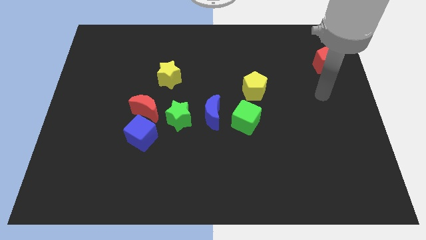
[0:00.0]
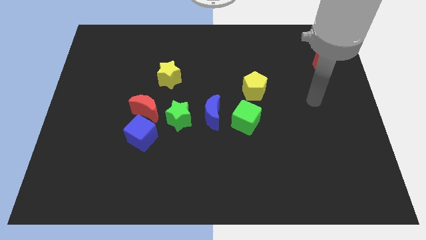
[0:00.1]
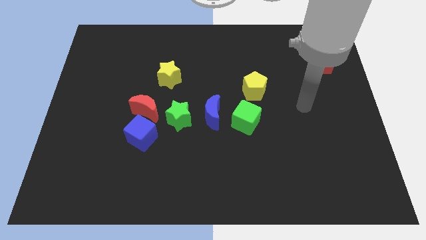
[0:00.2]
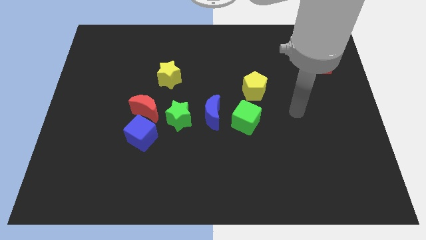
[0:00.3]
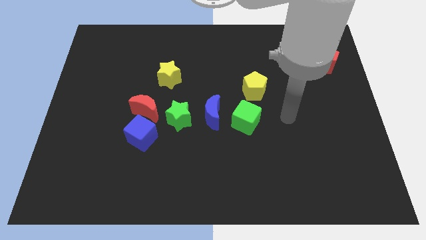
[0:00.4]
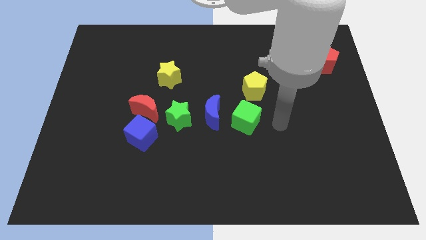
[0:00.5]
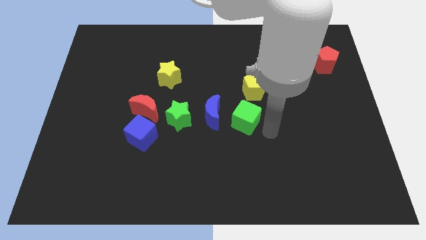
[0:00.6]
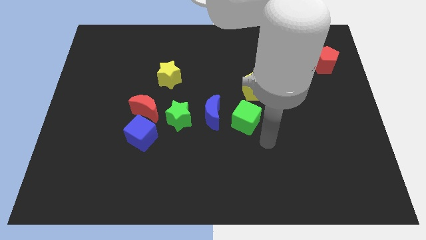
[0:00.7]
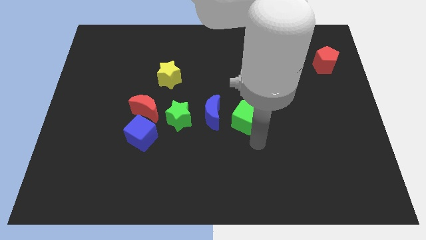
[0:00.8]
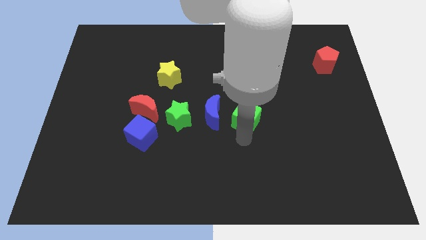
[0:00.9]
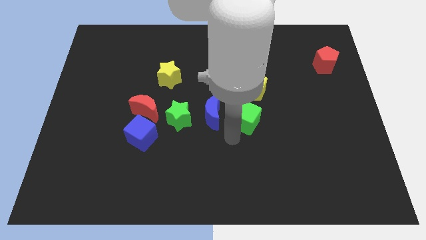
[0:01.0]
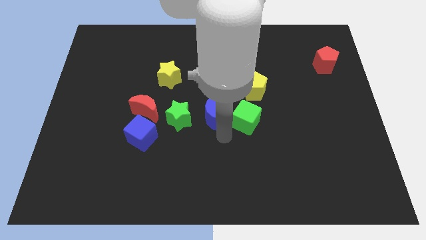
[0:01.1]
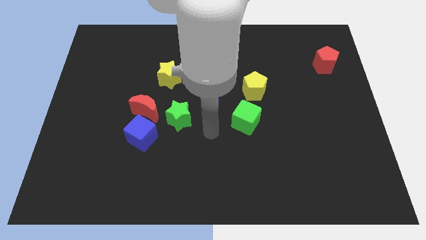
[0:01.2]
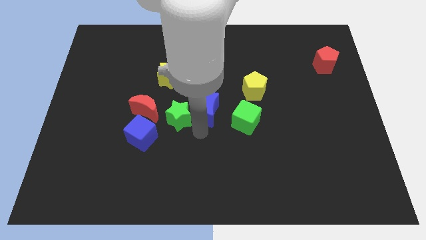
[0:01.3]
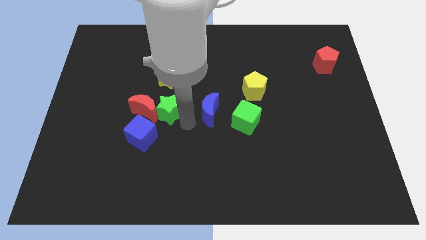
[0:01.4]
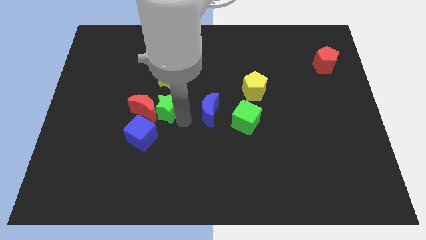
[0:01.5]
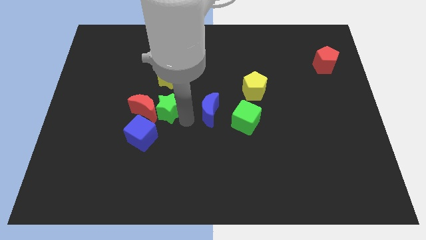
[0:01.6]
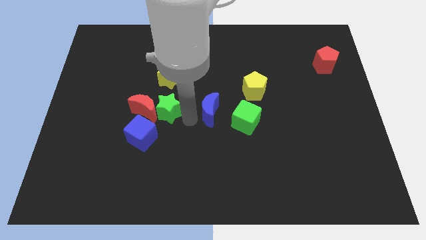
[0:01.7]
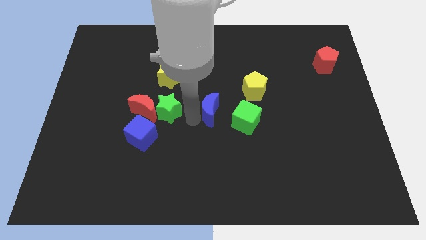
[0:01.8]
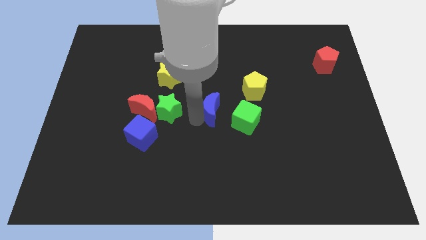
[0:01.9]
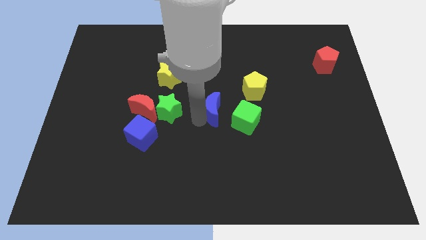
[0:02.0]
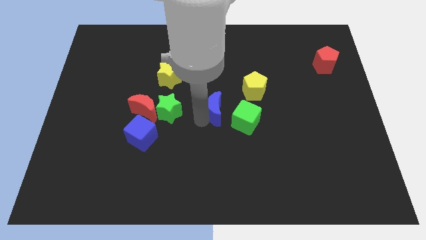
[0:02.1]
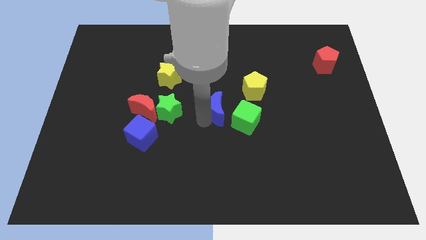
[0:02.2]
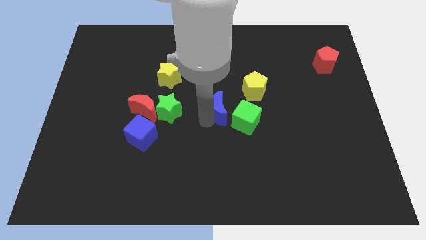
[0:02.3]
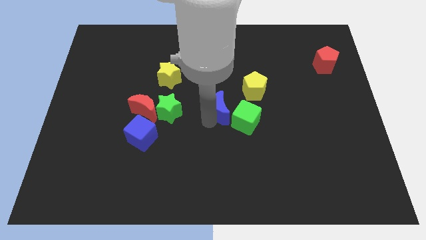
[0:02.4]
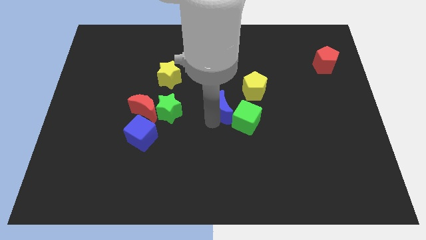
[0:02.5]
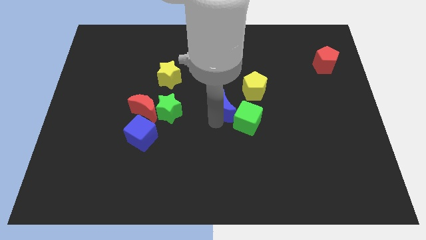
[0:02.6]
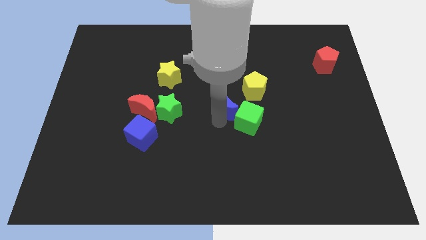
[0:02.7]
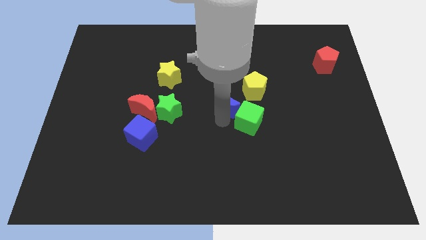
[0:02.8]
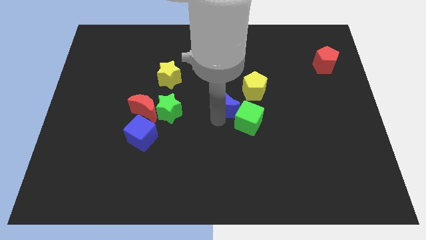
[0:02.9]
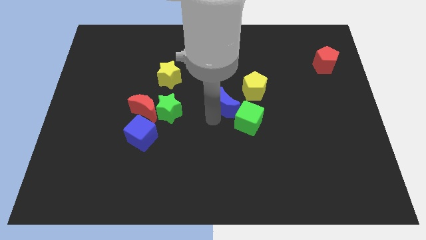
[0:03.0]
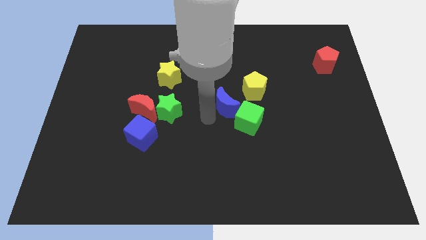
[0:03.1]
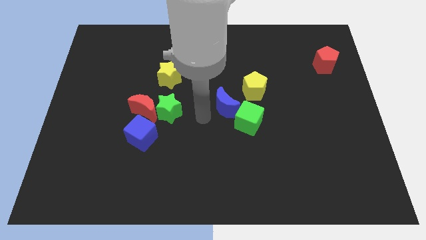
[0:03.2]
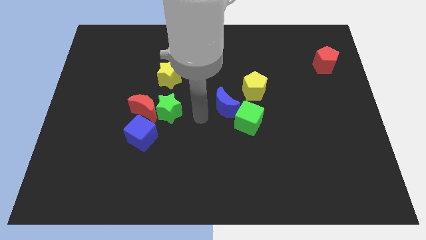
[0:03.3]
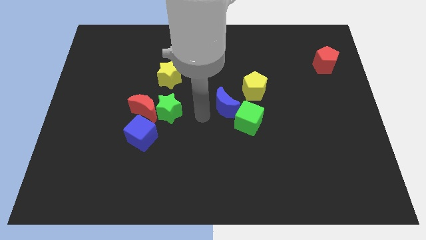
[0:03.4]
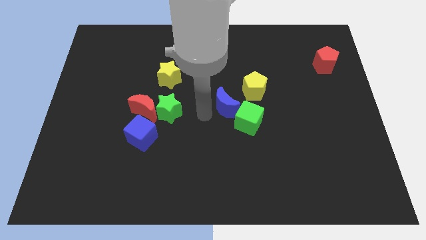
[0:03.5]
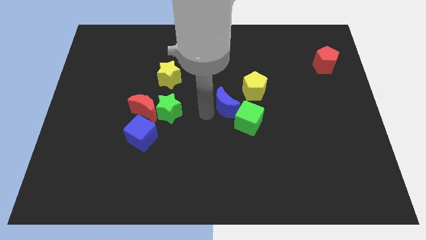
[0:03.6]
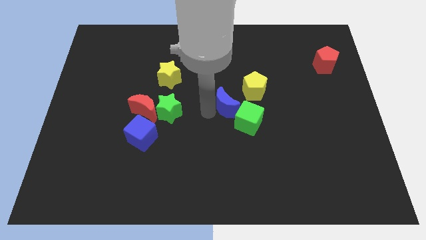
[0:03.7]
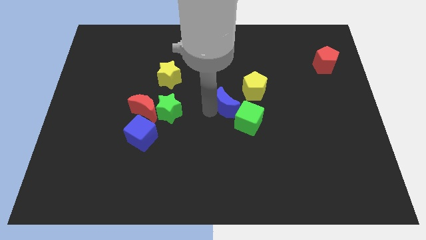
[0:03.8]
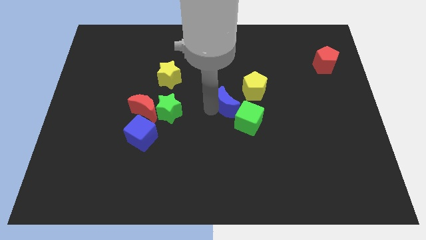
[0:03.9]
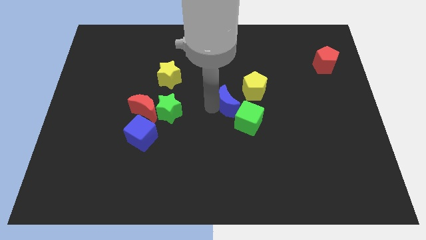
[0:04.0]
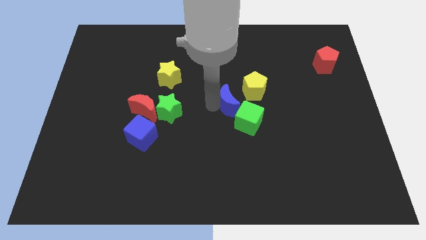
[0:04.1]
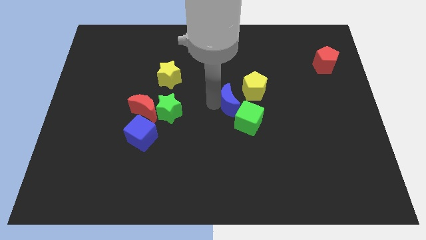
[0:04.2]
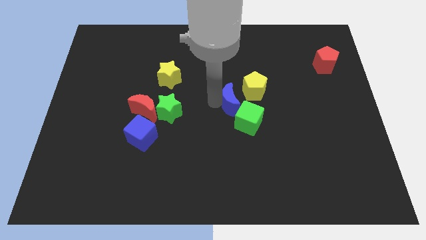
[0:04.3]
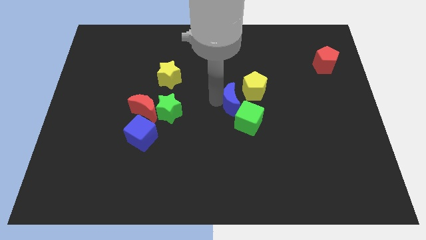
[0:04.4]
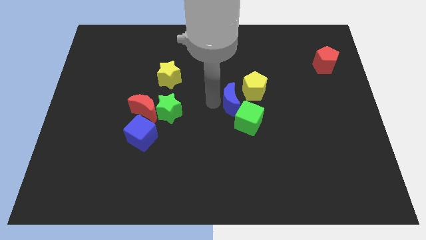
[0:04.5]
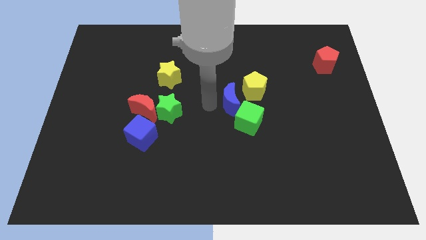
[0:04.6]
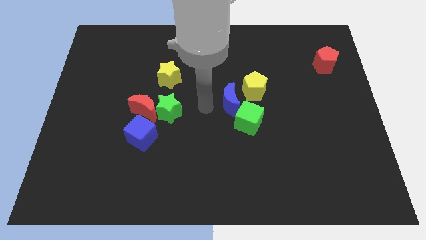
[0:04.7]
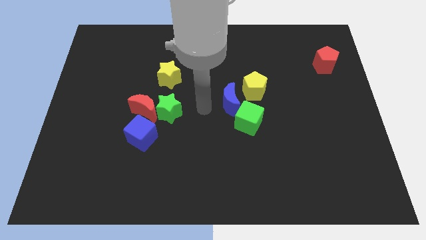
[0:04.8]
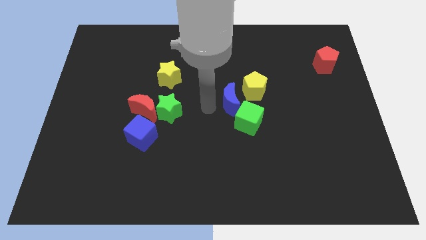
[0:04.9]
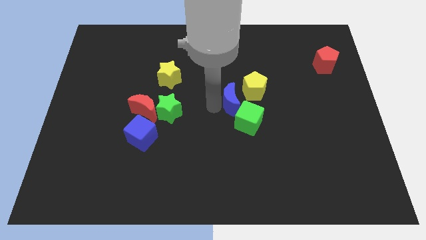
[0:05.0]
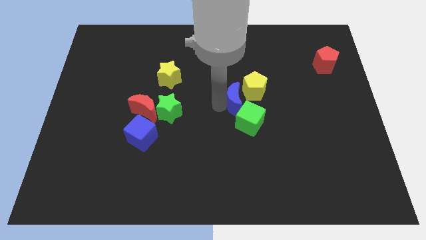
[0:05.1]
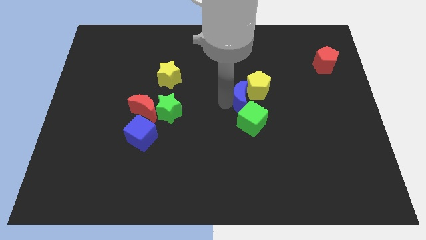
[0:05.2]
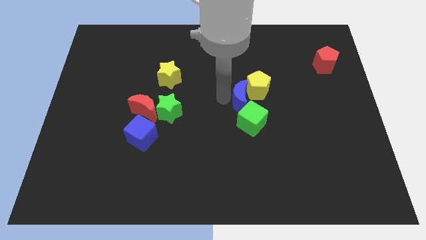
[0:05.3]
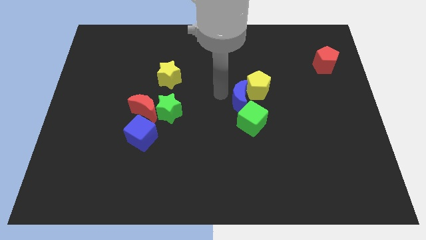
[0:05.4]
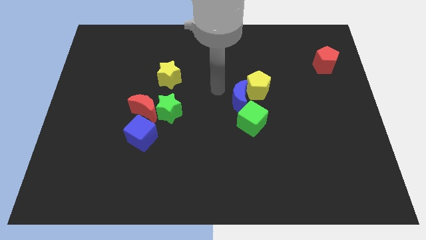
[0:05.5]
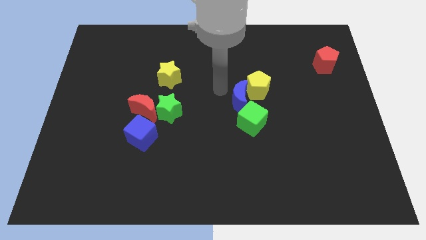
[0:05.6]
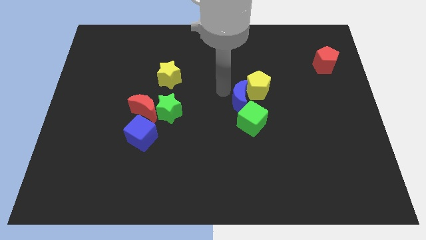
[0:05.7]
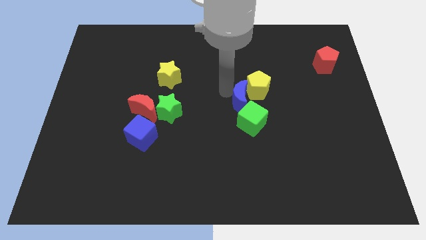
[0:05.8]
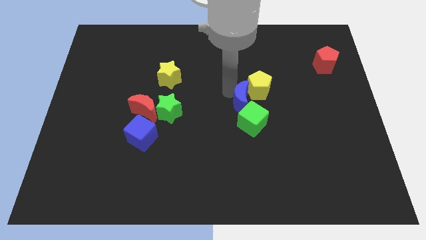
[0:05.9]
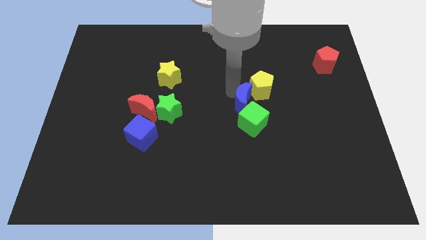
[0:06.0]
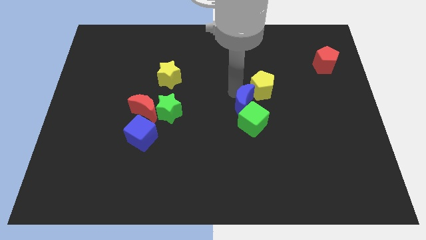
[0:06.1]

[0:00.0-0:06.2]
move the blue moon a little to the right

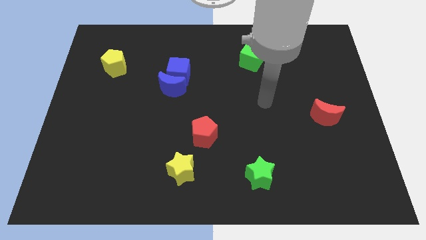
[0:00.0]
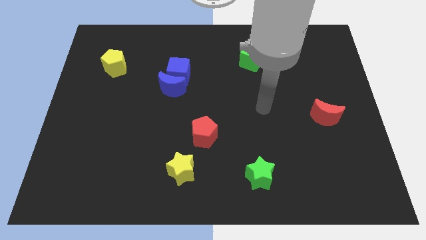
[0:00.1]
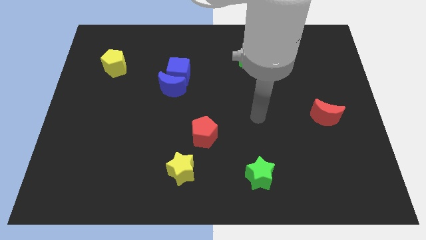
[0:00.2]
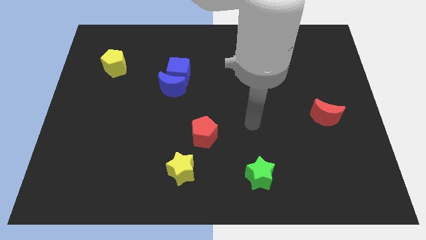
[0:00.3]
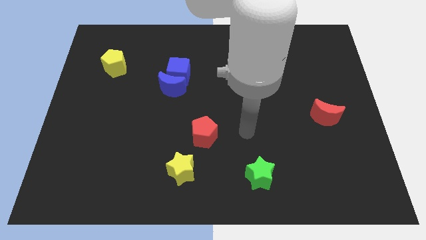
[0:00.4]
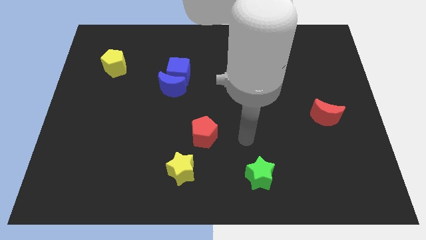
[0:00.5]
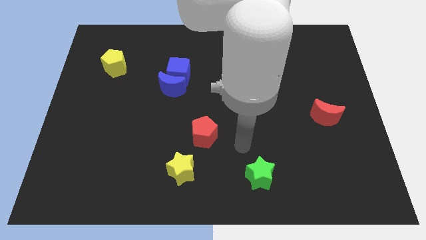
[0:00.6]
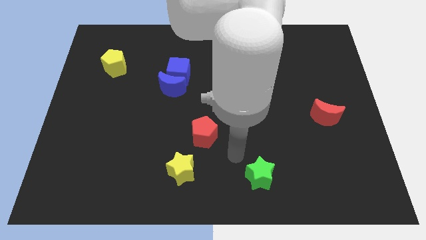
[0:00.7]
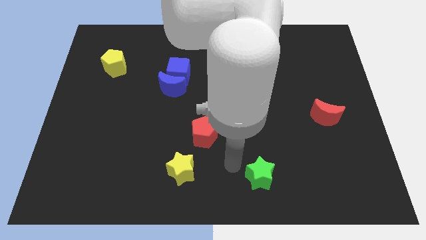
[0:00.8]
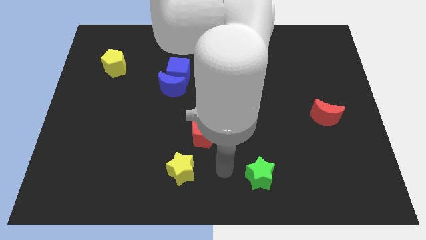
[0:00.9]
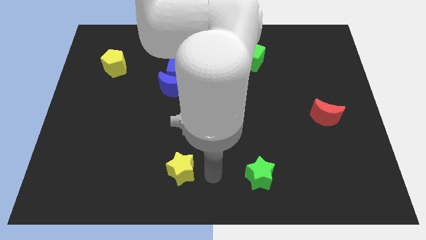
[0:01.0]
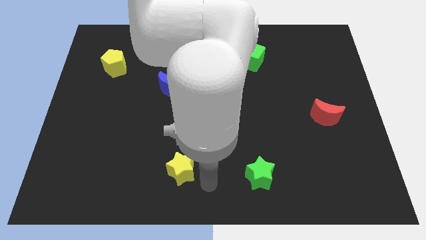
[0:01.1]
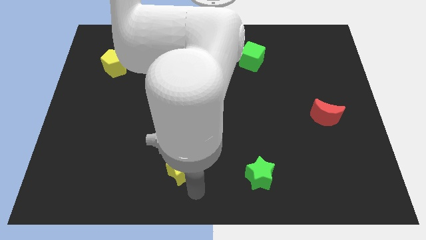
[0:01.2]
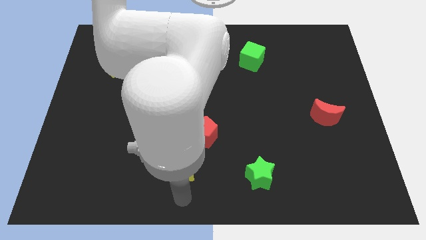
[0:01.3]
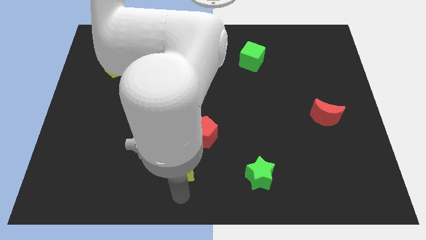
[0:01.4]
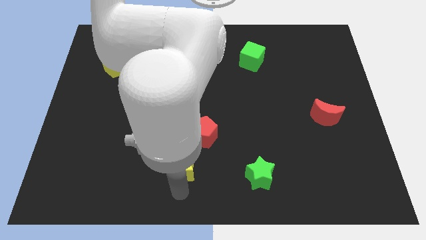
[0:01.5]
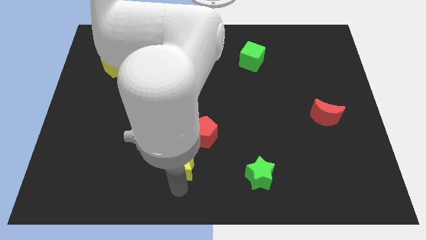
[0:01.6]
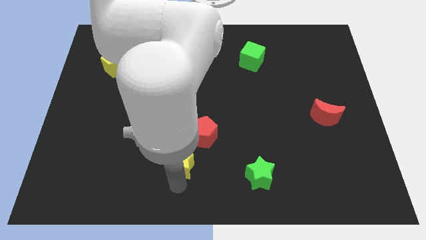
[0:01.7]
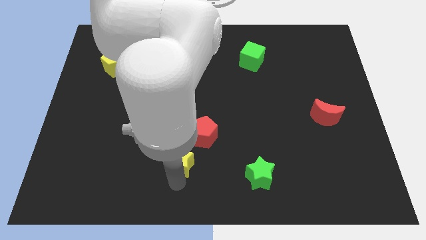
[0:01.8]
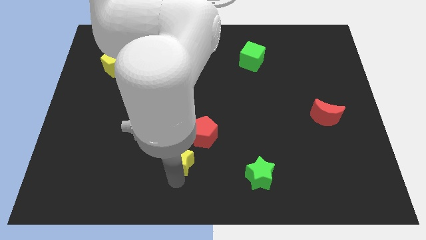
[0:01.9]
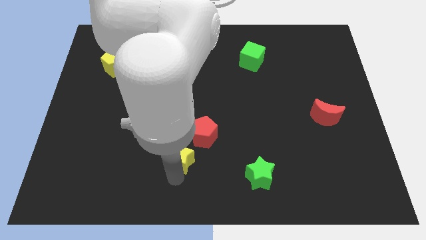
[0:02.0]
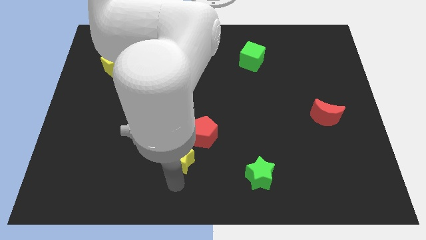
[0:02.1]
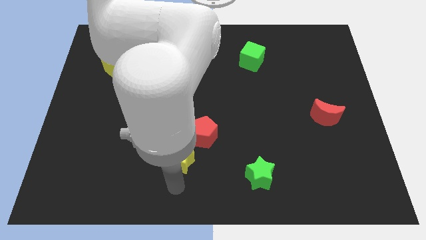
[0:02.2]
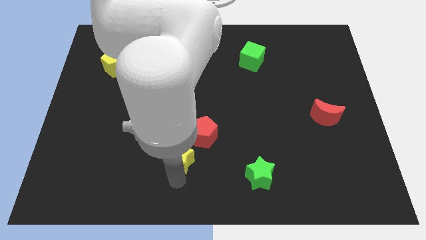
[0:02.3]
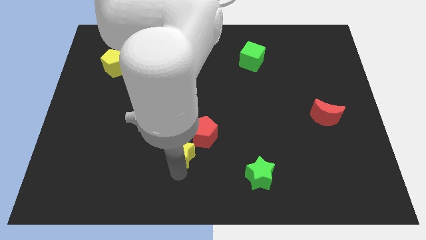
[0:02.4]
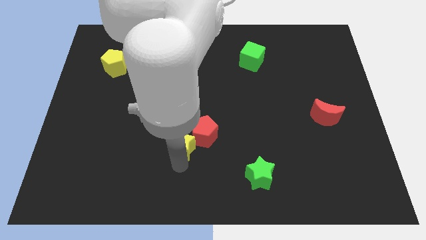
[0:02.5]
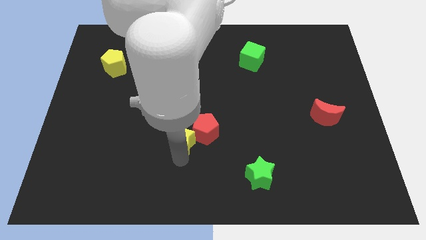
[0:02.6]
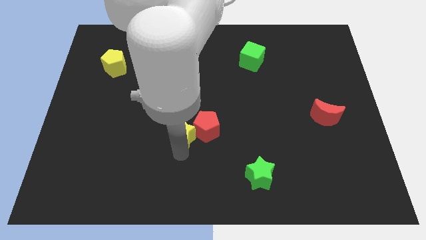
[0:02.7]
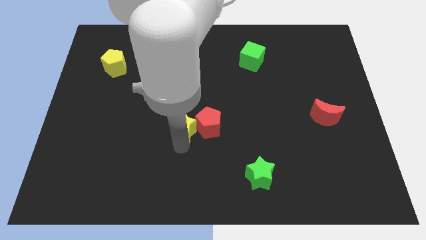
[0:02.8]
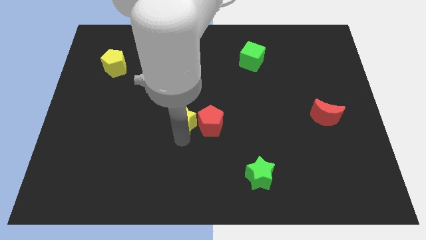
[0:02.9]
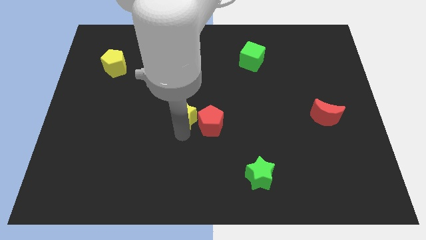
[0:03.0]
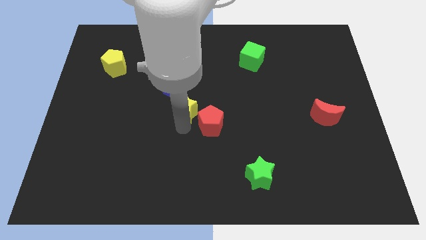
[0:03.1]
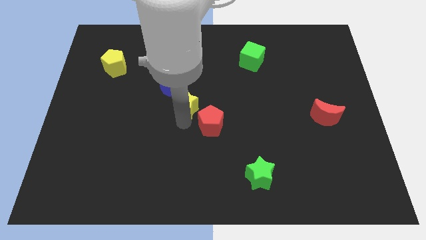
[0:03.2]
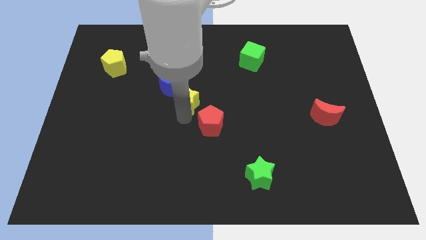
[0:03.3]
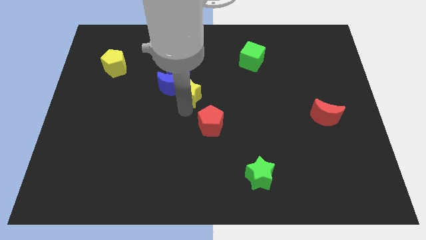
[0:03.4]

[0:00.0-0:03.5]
move the yellow star upwards
